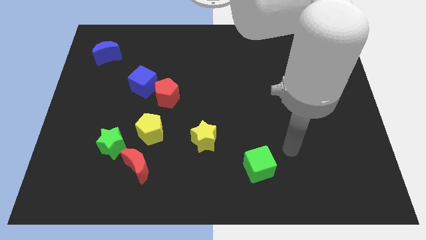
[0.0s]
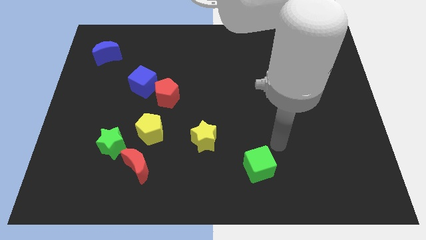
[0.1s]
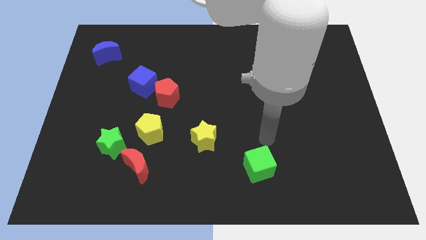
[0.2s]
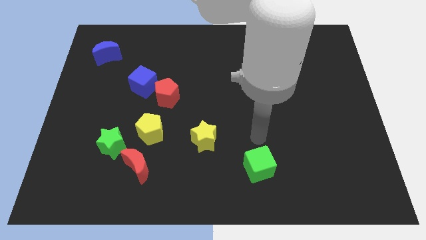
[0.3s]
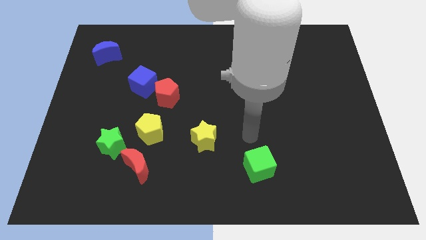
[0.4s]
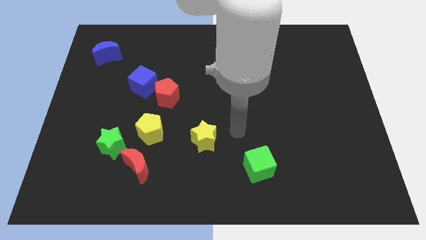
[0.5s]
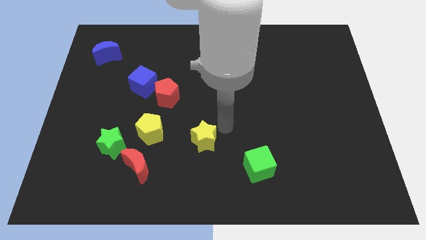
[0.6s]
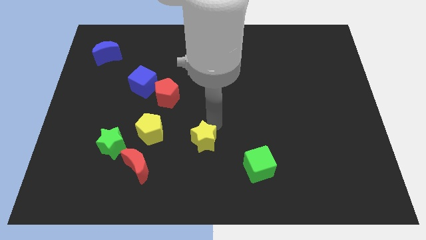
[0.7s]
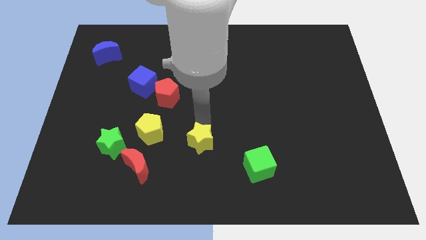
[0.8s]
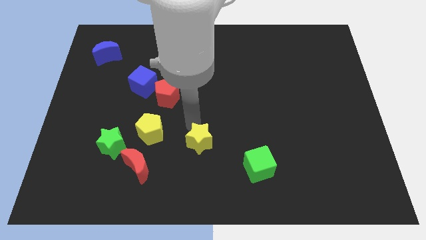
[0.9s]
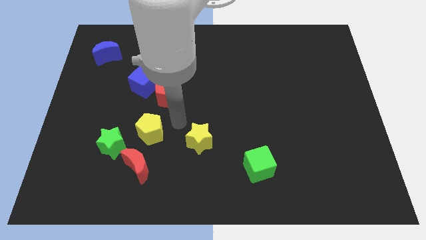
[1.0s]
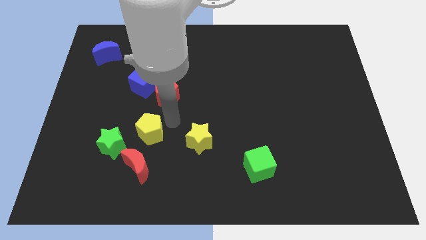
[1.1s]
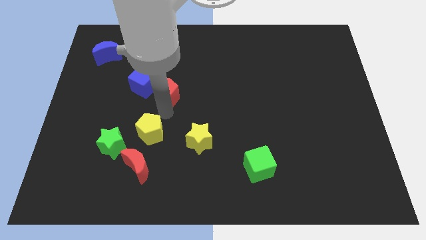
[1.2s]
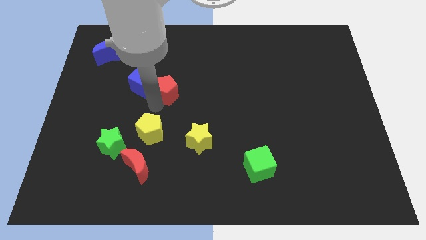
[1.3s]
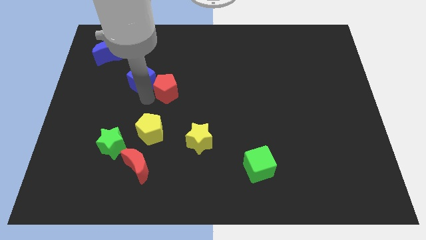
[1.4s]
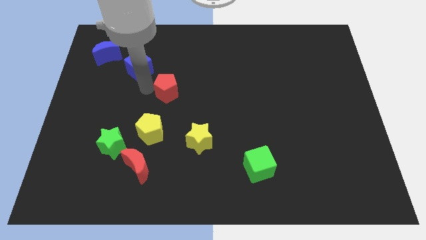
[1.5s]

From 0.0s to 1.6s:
separate the red pentagon from the blue cube

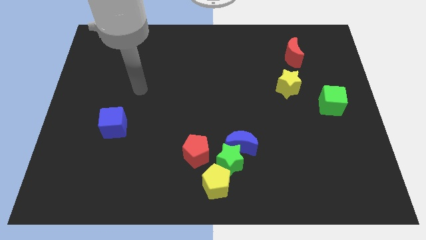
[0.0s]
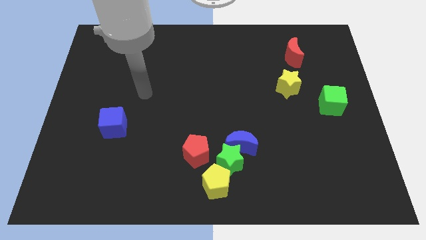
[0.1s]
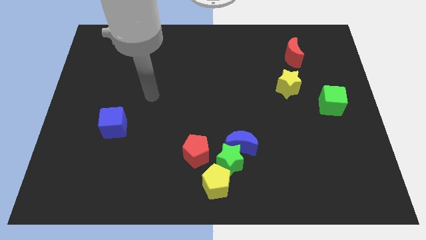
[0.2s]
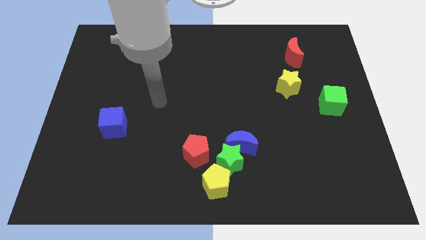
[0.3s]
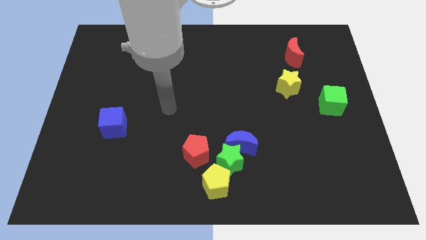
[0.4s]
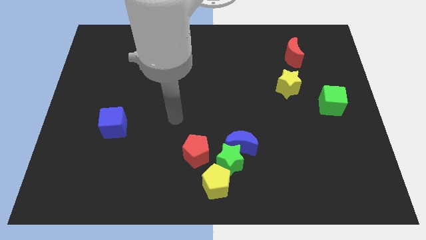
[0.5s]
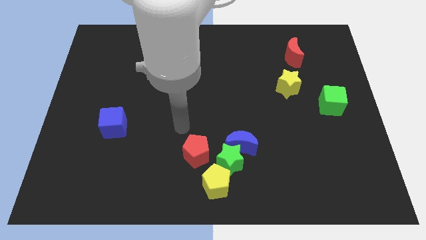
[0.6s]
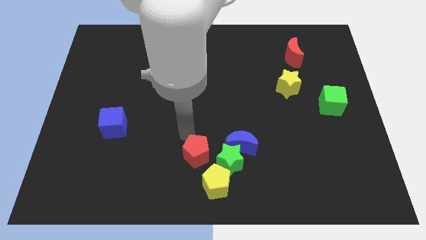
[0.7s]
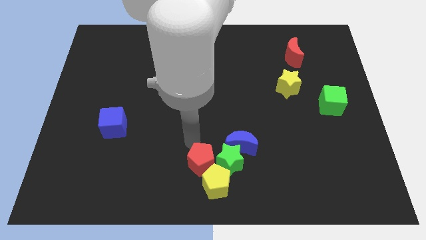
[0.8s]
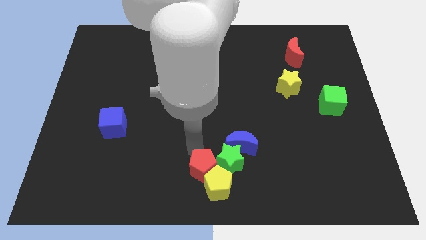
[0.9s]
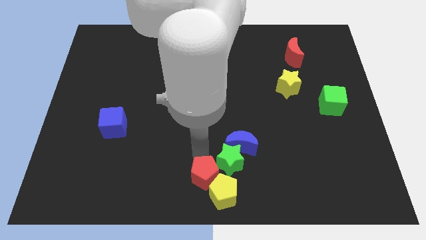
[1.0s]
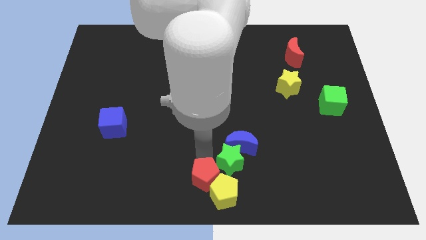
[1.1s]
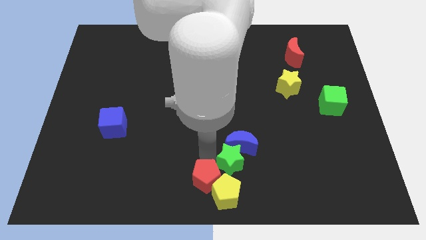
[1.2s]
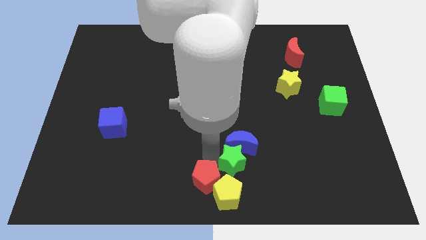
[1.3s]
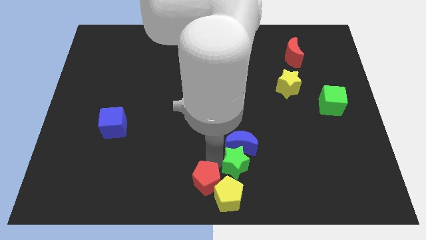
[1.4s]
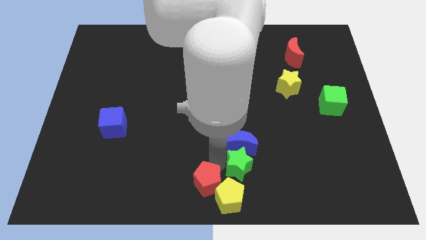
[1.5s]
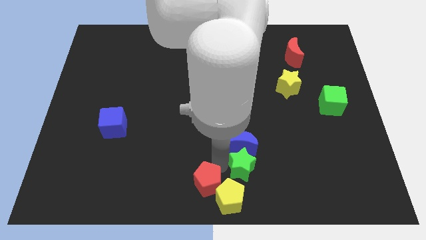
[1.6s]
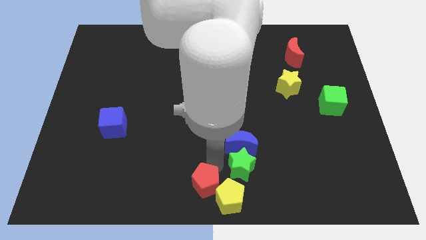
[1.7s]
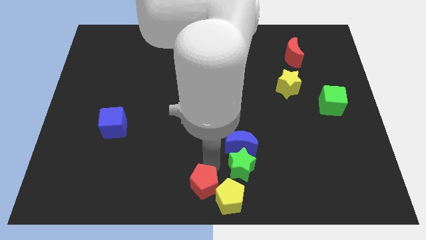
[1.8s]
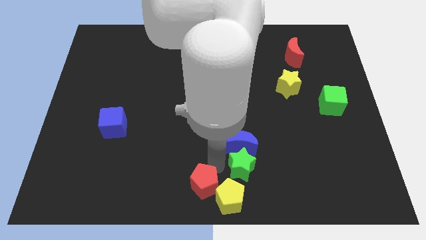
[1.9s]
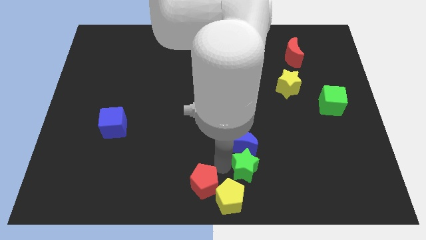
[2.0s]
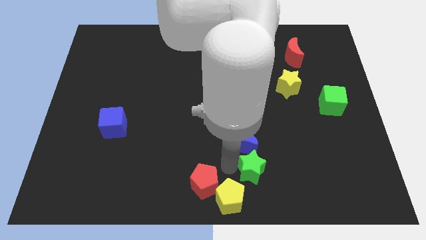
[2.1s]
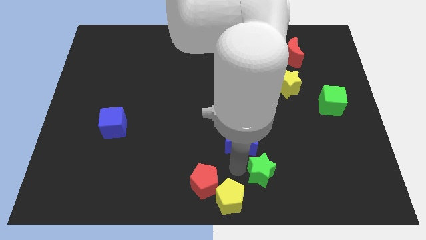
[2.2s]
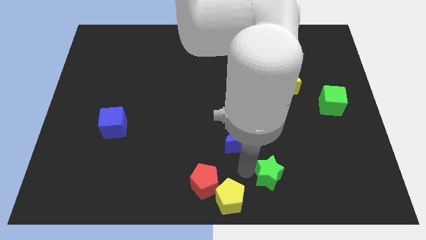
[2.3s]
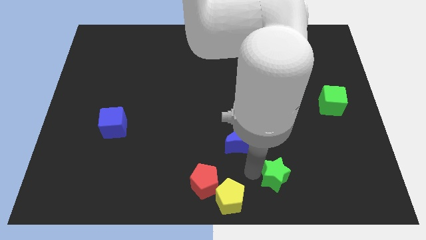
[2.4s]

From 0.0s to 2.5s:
pull the green star apart from the blue moon, yellow pentagon, and red pentagon

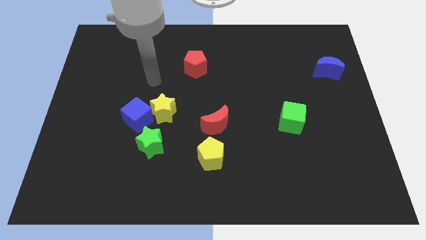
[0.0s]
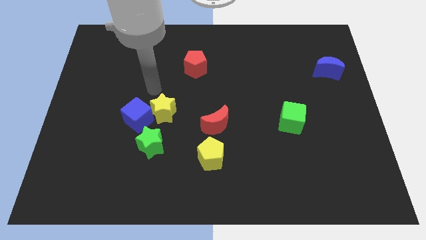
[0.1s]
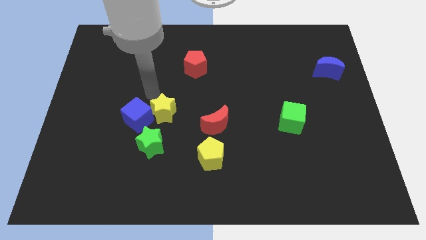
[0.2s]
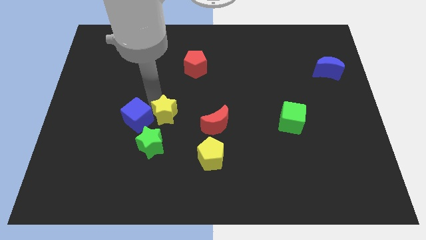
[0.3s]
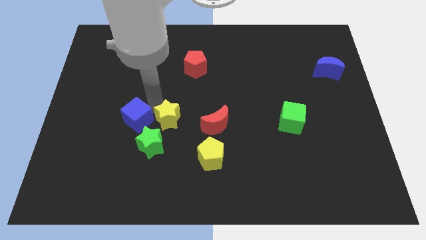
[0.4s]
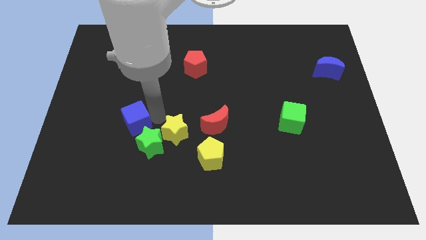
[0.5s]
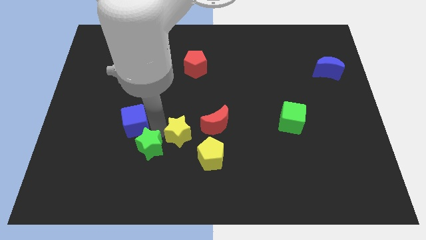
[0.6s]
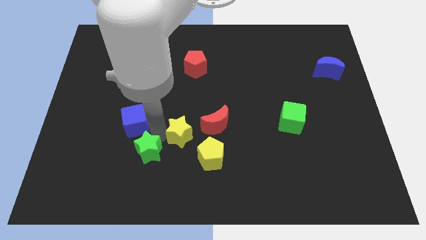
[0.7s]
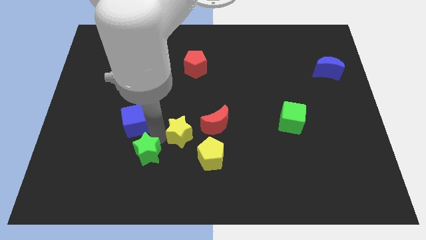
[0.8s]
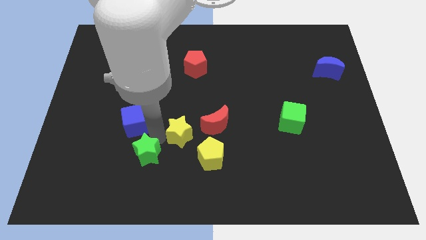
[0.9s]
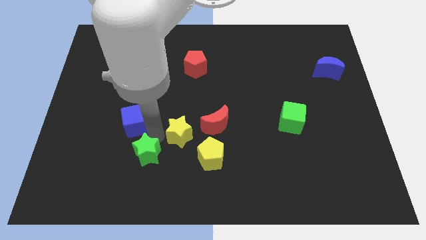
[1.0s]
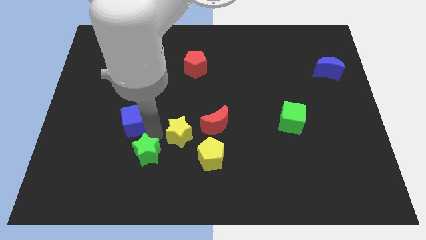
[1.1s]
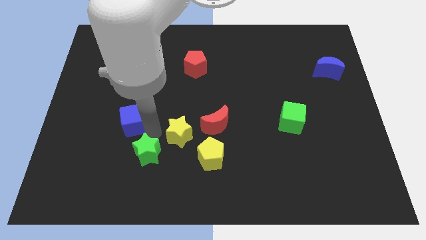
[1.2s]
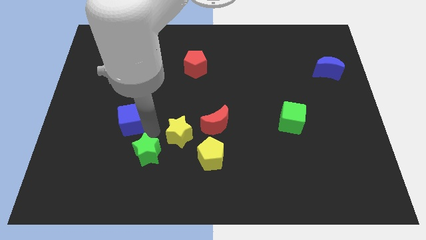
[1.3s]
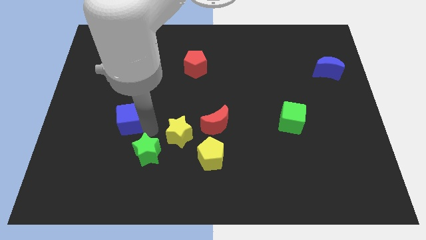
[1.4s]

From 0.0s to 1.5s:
separate the blue cube from the yellow star and green star

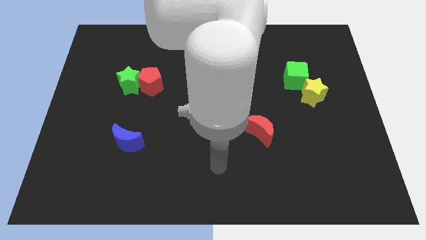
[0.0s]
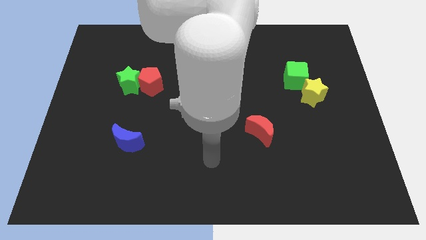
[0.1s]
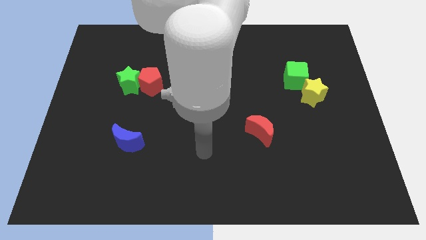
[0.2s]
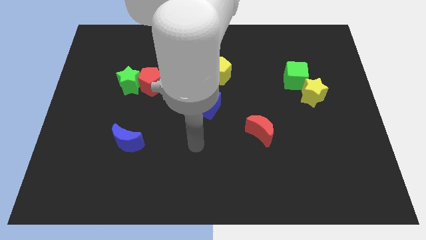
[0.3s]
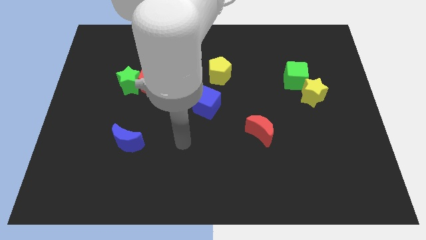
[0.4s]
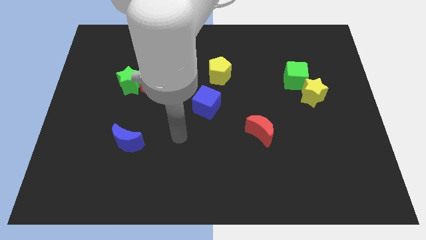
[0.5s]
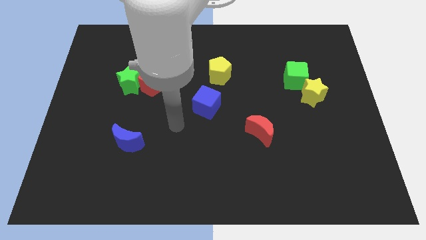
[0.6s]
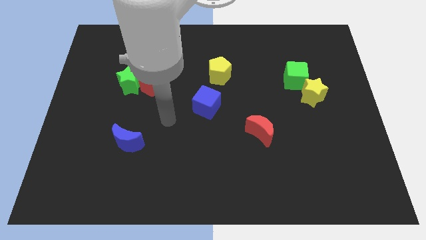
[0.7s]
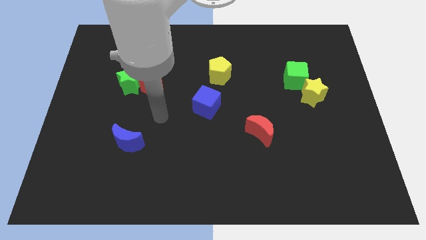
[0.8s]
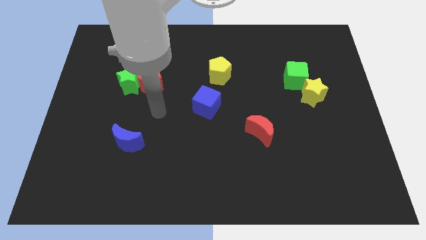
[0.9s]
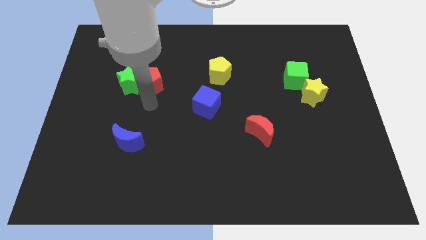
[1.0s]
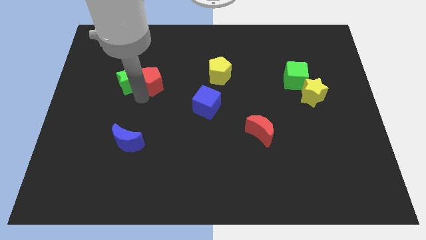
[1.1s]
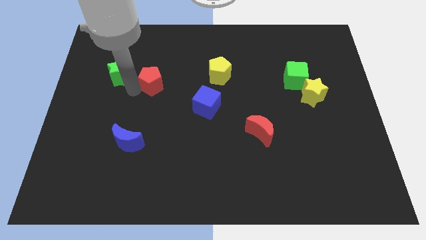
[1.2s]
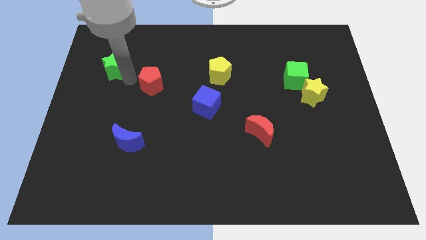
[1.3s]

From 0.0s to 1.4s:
separate the red pentagon from the green star

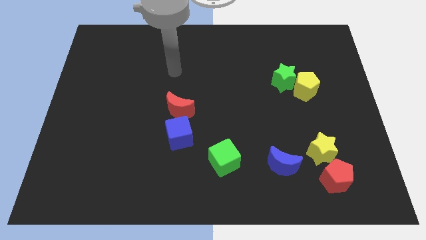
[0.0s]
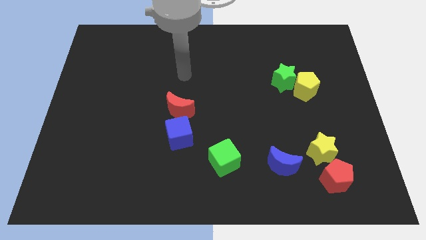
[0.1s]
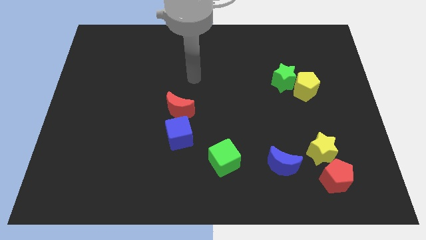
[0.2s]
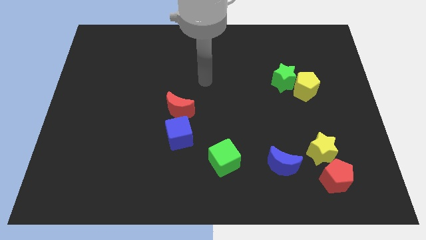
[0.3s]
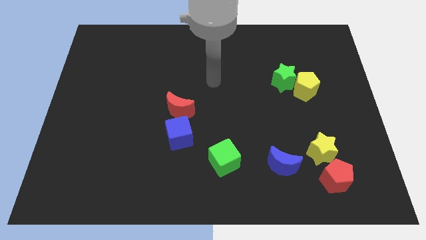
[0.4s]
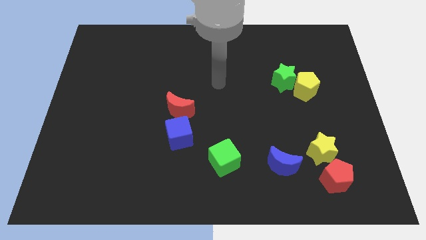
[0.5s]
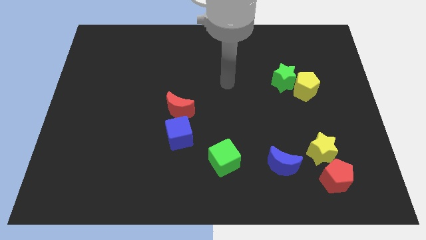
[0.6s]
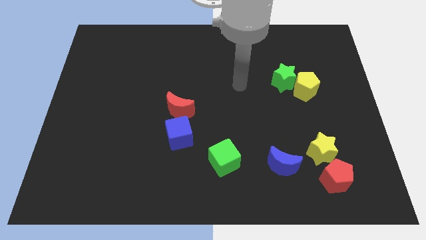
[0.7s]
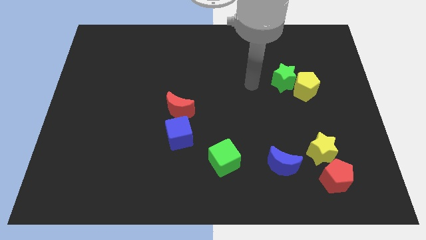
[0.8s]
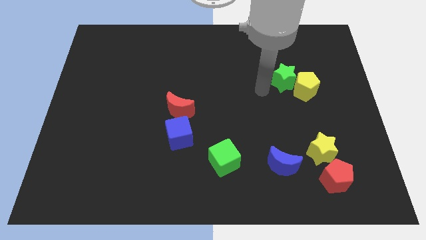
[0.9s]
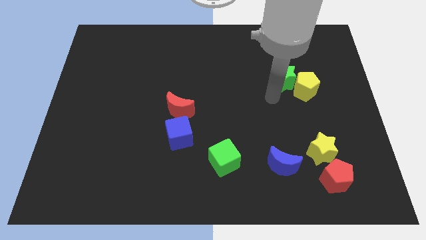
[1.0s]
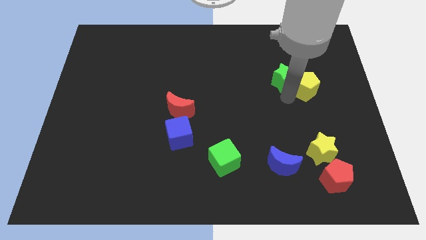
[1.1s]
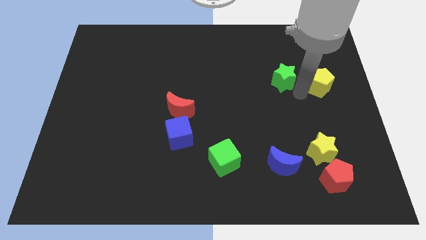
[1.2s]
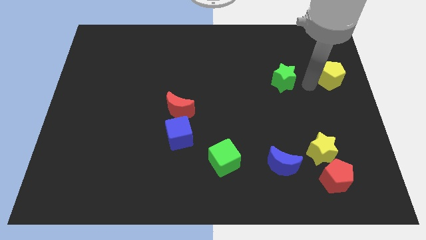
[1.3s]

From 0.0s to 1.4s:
separate the green star from the yellow pentagon

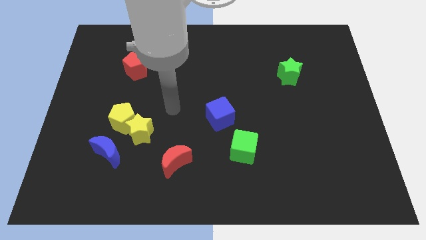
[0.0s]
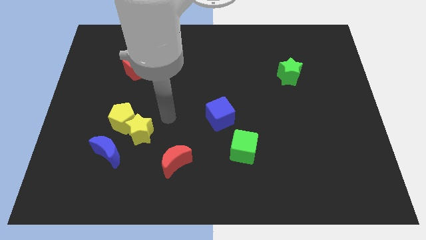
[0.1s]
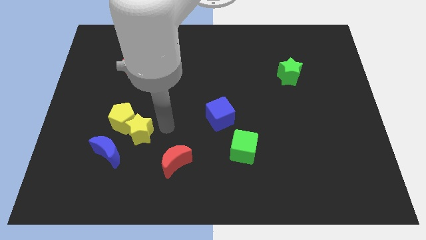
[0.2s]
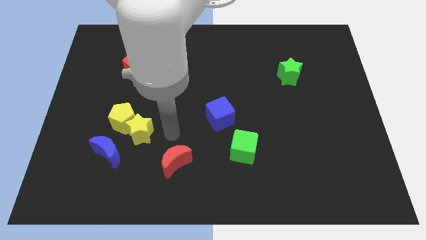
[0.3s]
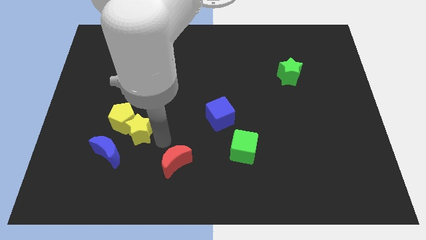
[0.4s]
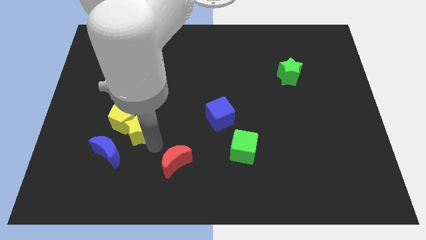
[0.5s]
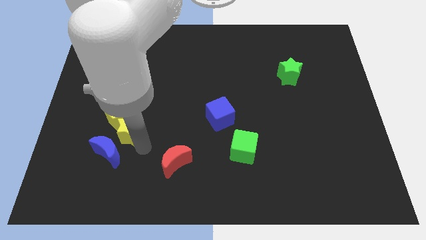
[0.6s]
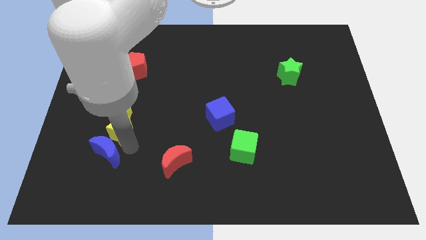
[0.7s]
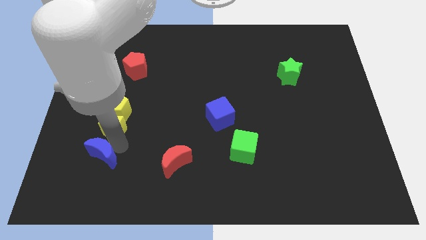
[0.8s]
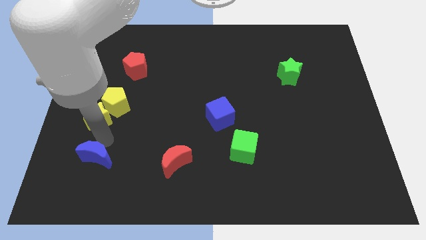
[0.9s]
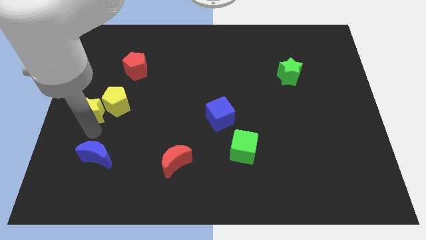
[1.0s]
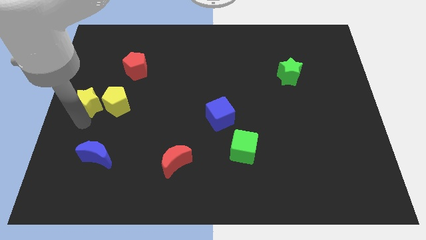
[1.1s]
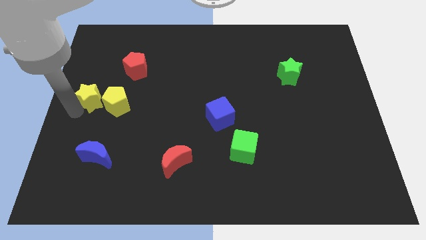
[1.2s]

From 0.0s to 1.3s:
separate the yellow star from the yellow pentagon and blue moon
